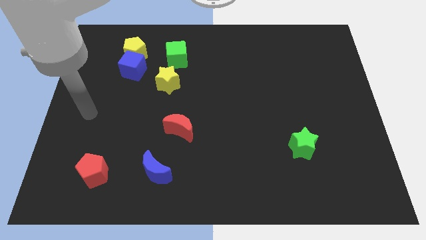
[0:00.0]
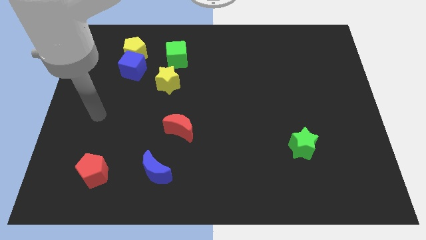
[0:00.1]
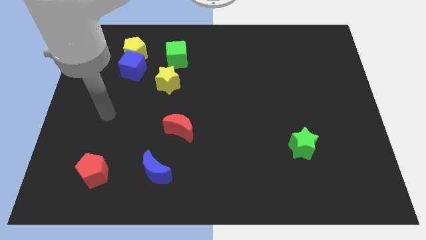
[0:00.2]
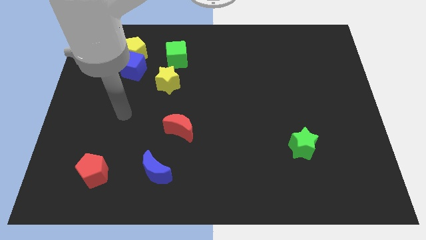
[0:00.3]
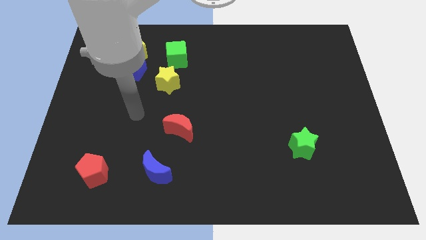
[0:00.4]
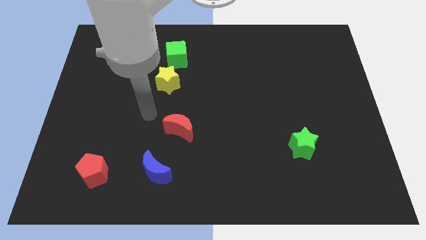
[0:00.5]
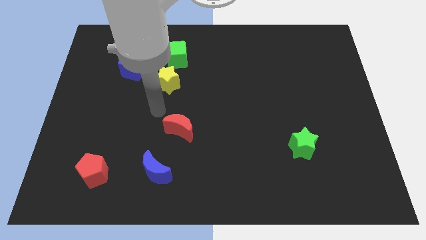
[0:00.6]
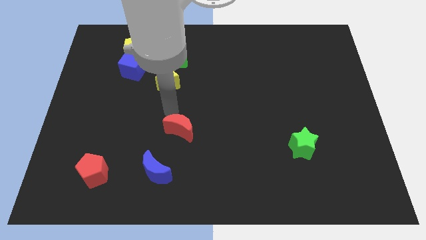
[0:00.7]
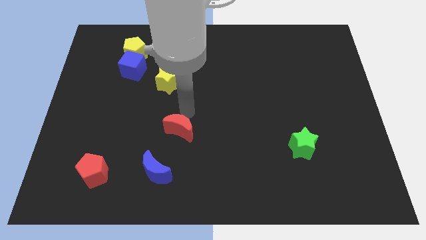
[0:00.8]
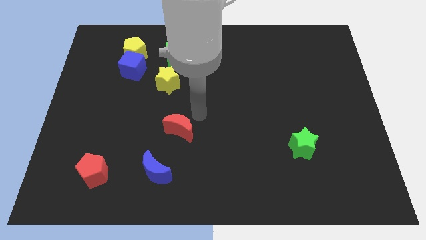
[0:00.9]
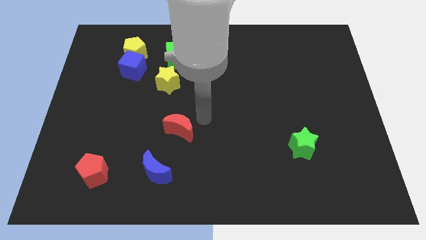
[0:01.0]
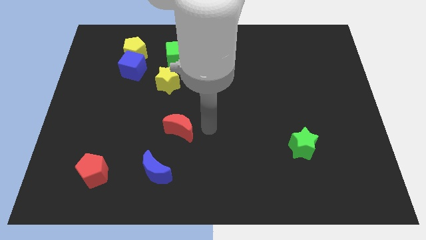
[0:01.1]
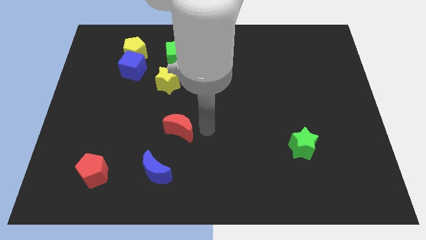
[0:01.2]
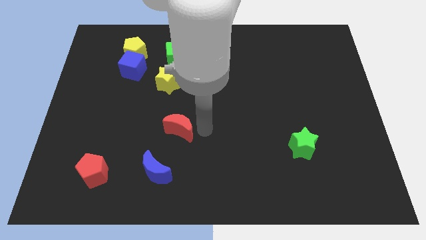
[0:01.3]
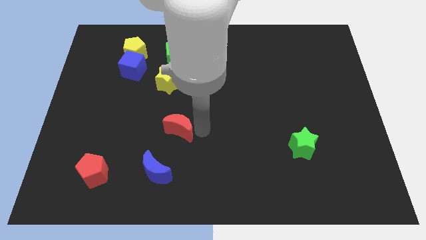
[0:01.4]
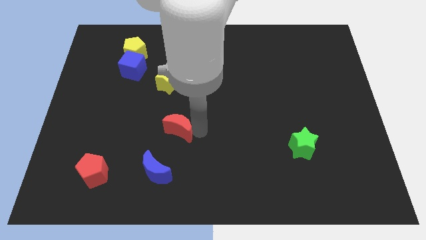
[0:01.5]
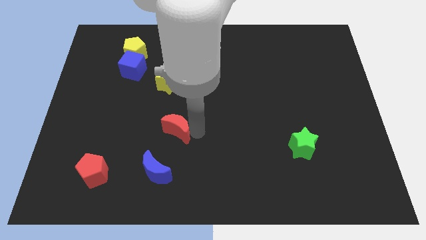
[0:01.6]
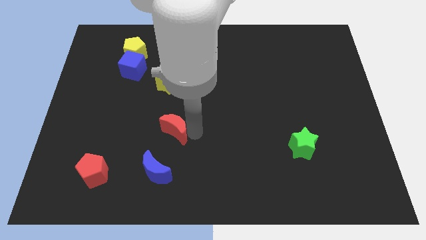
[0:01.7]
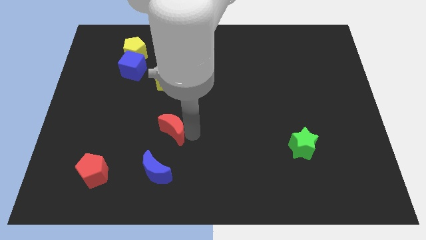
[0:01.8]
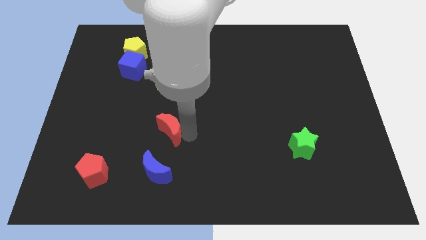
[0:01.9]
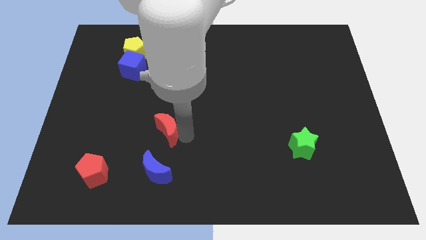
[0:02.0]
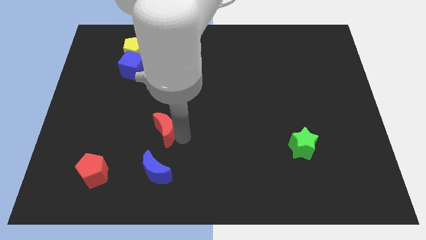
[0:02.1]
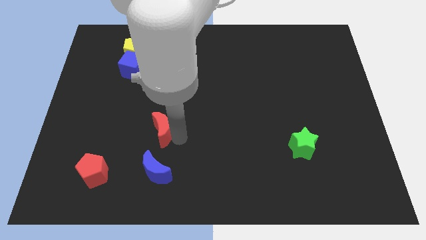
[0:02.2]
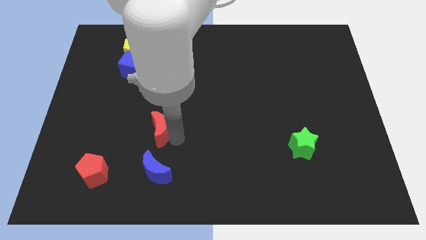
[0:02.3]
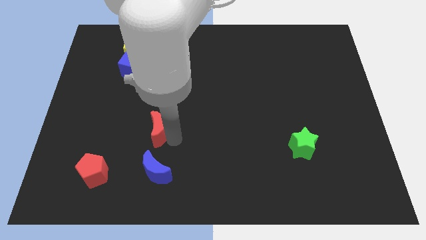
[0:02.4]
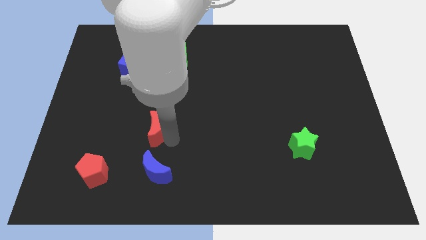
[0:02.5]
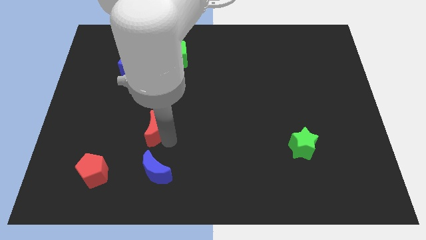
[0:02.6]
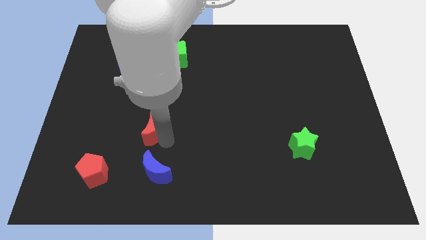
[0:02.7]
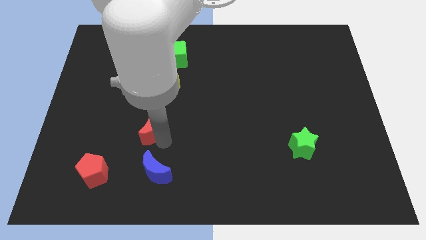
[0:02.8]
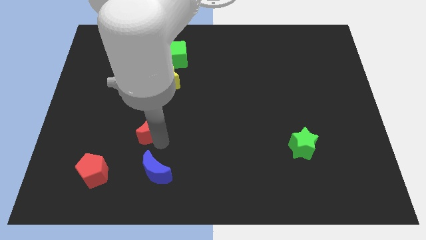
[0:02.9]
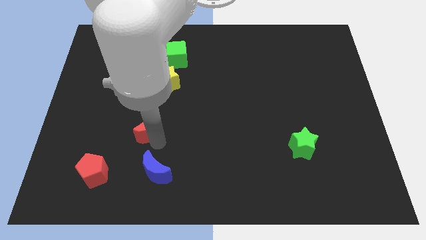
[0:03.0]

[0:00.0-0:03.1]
move the red moon somewhat left

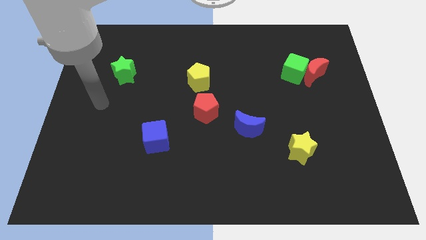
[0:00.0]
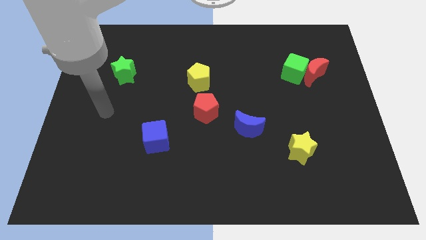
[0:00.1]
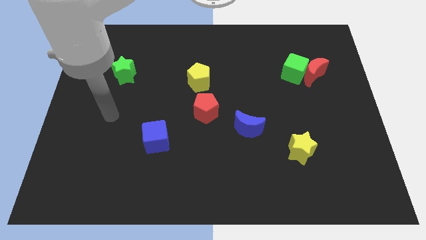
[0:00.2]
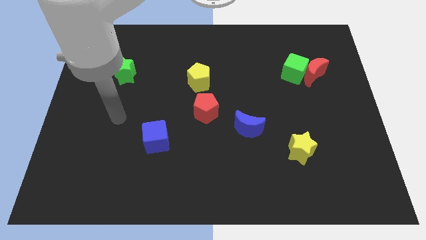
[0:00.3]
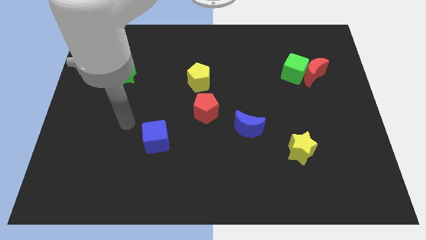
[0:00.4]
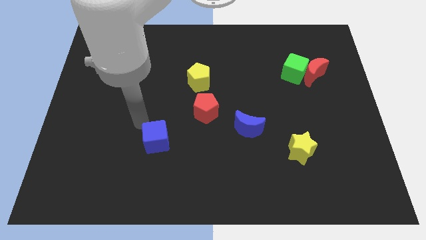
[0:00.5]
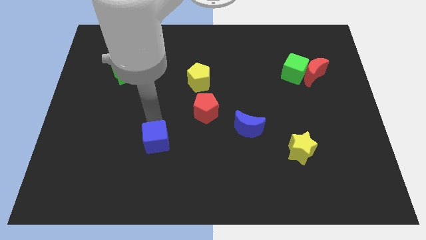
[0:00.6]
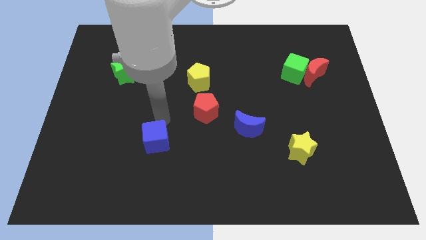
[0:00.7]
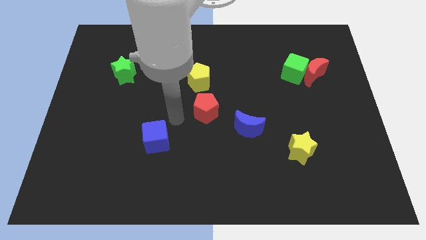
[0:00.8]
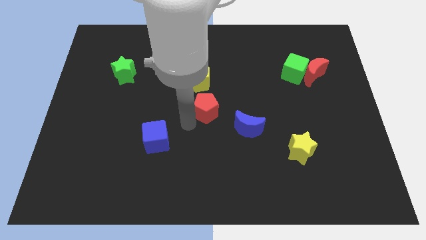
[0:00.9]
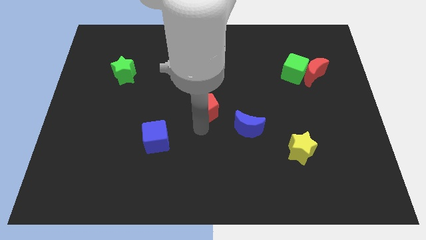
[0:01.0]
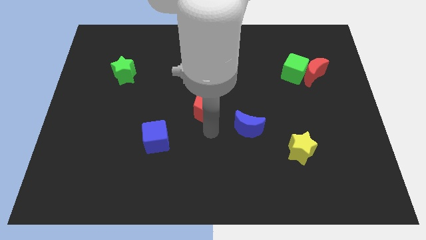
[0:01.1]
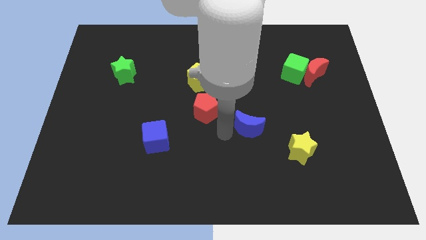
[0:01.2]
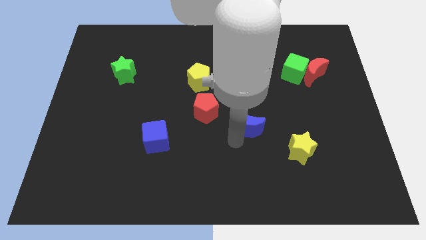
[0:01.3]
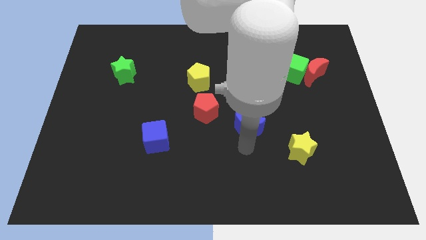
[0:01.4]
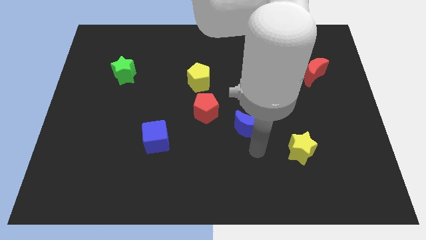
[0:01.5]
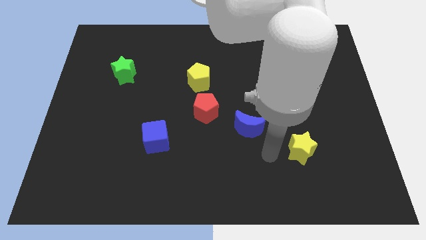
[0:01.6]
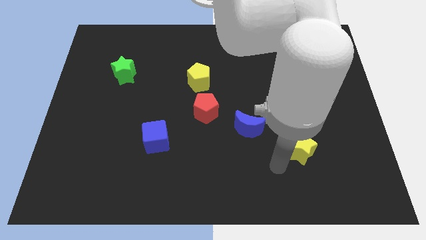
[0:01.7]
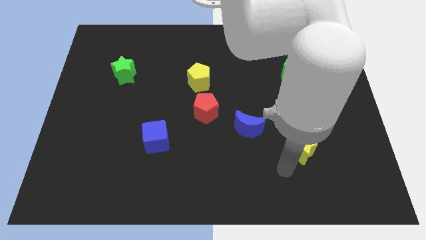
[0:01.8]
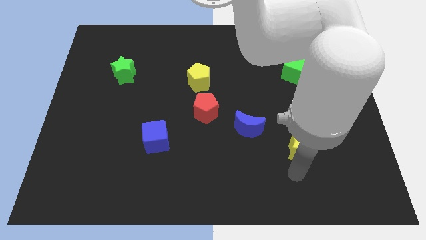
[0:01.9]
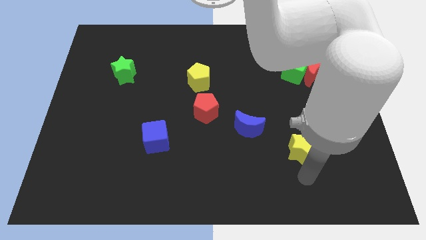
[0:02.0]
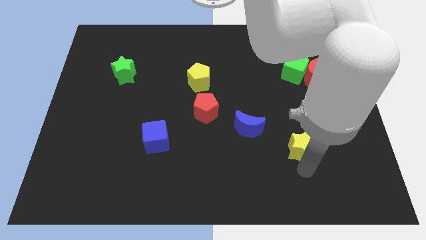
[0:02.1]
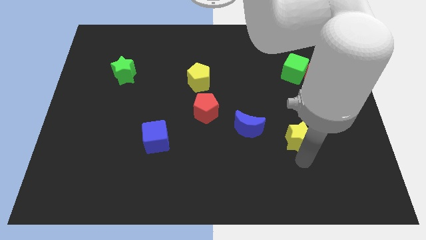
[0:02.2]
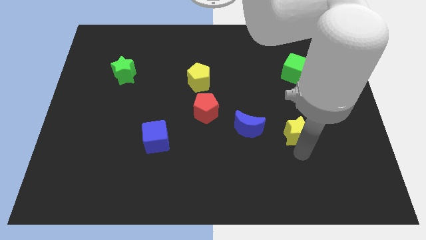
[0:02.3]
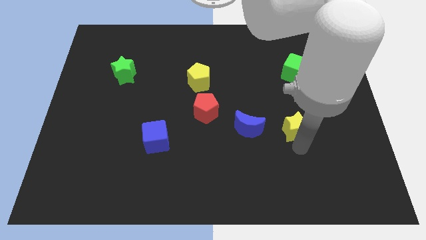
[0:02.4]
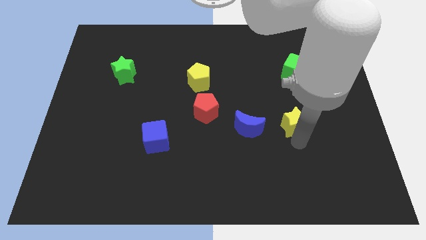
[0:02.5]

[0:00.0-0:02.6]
slide the yellow star a little bit upwards

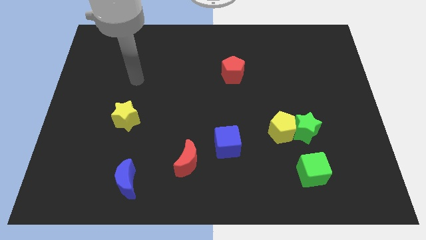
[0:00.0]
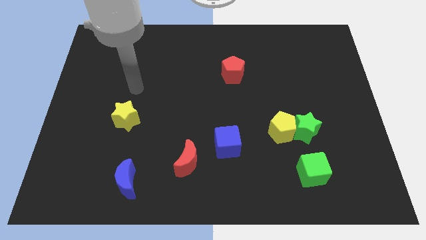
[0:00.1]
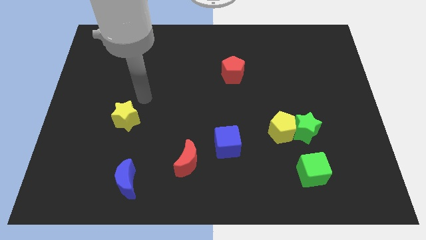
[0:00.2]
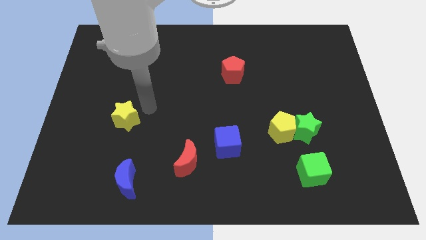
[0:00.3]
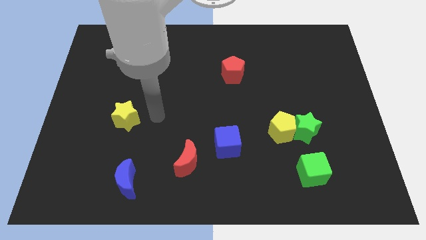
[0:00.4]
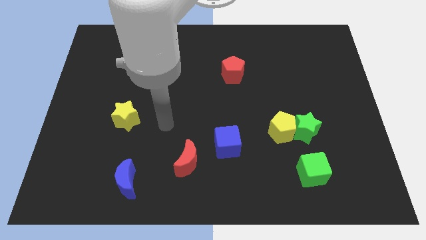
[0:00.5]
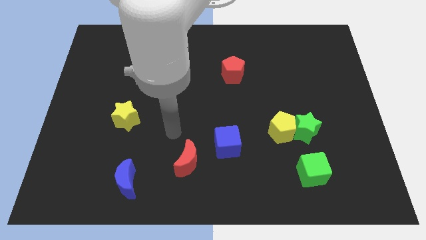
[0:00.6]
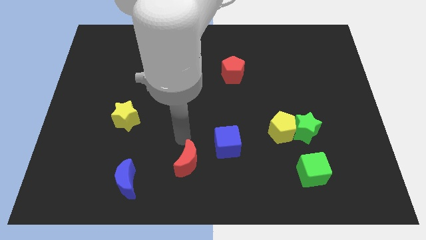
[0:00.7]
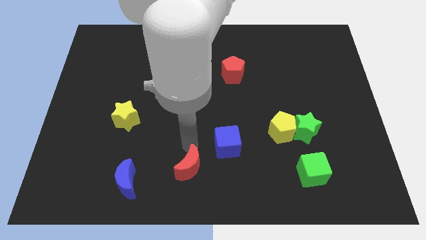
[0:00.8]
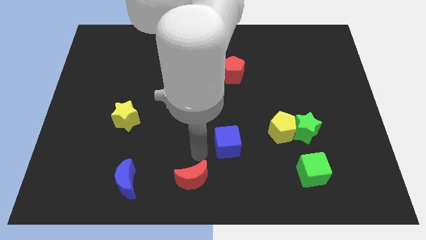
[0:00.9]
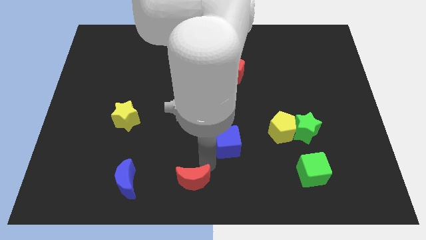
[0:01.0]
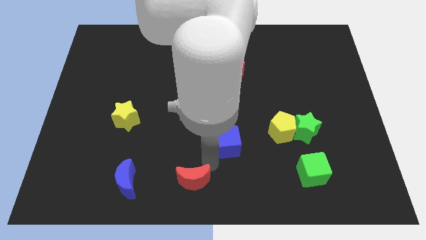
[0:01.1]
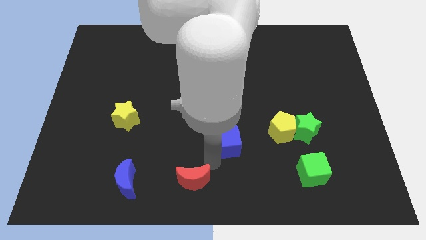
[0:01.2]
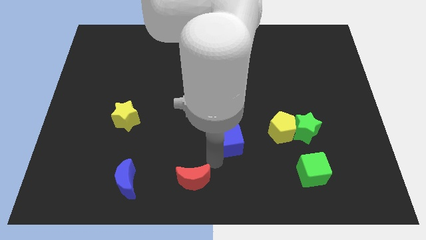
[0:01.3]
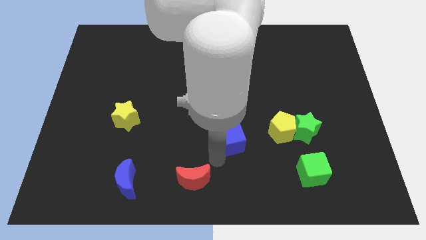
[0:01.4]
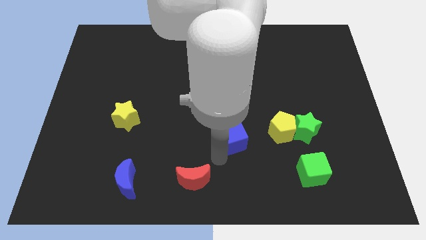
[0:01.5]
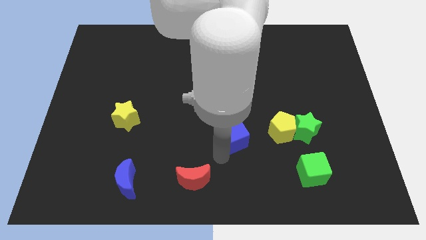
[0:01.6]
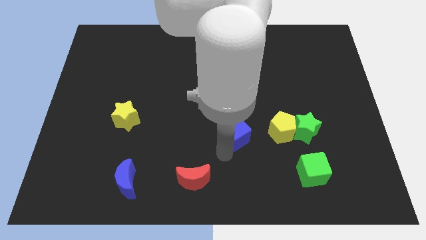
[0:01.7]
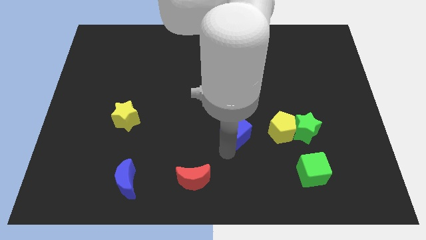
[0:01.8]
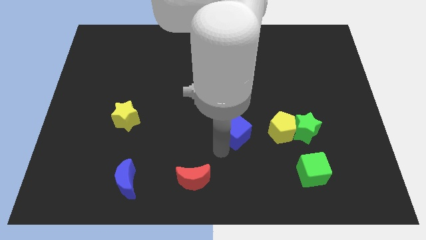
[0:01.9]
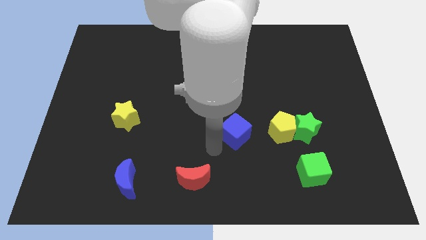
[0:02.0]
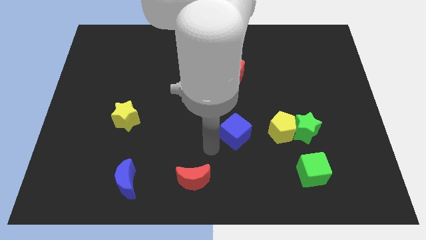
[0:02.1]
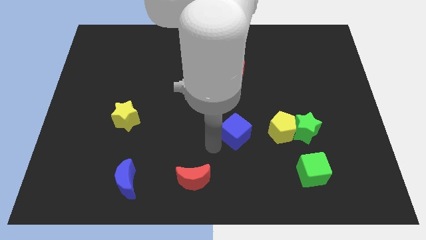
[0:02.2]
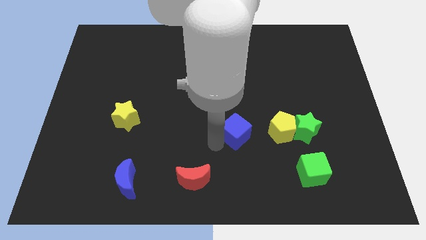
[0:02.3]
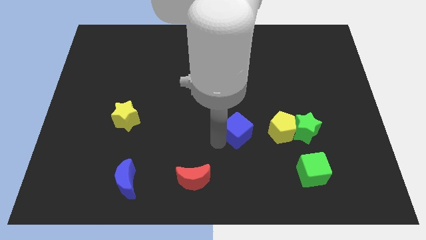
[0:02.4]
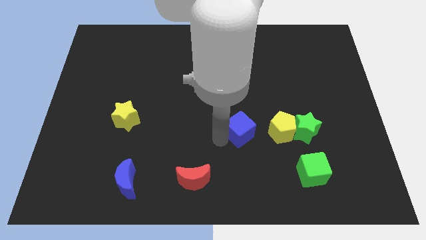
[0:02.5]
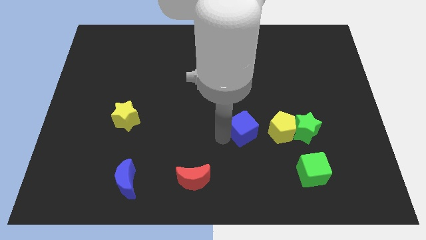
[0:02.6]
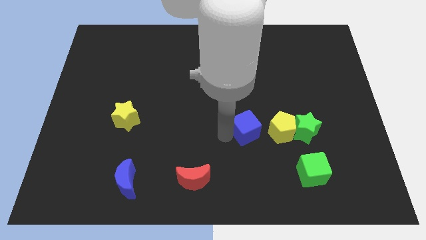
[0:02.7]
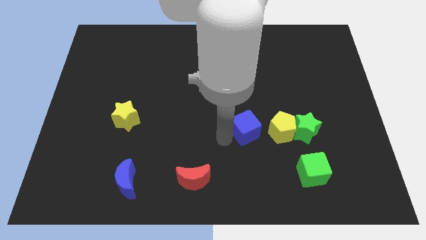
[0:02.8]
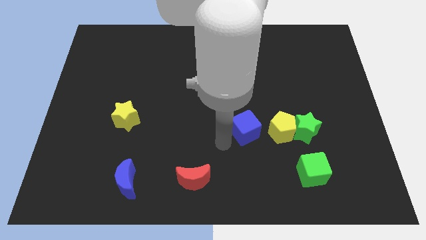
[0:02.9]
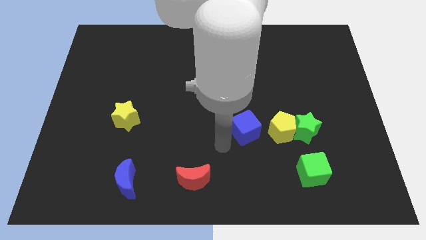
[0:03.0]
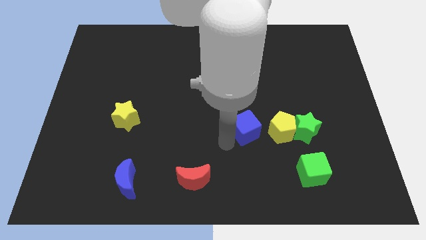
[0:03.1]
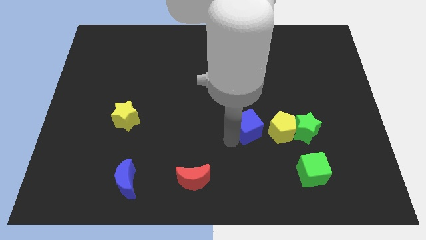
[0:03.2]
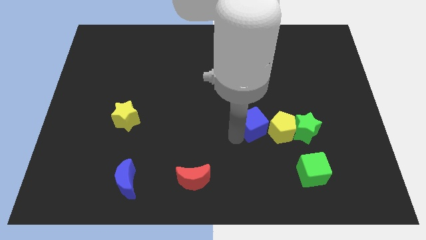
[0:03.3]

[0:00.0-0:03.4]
slightly move the blue cube upwards and right
